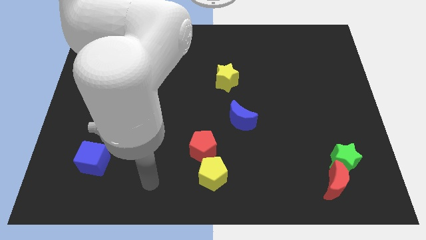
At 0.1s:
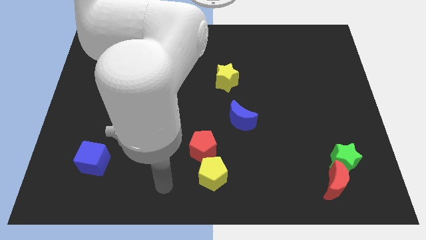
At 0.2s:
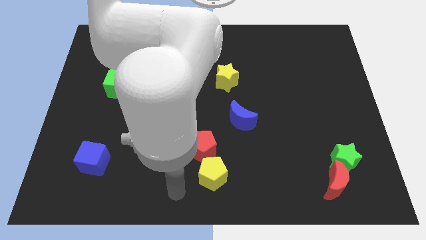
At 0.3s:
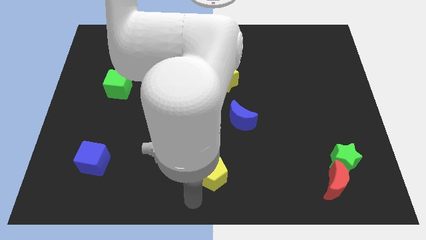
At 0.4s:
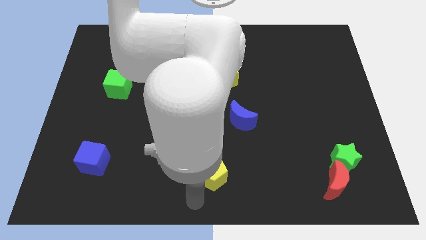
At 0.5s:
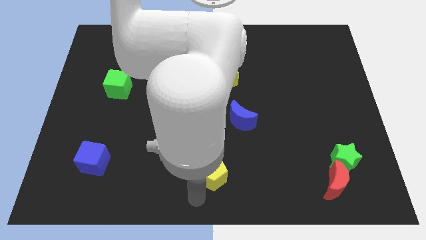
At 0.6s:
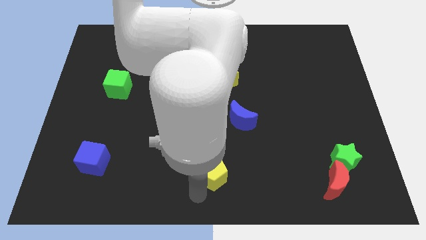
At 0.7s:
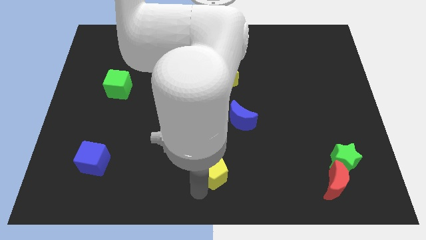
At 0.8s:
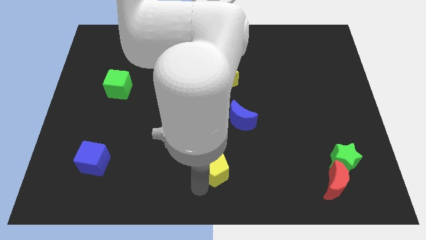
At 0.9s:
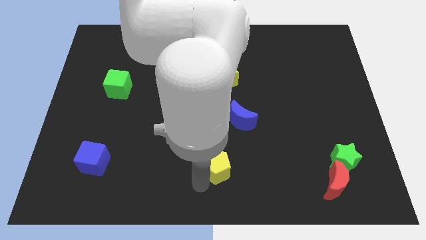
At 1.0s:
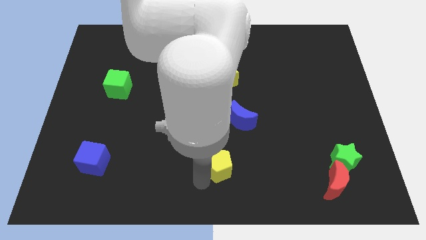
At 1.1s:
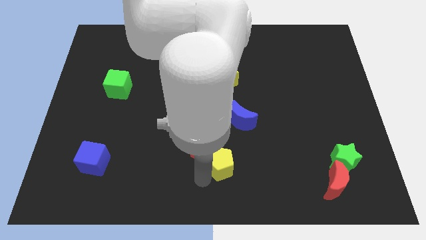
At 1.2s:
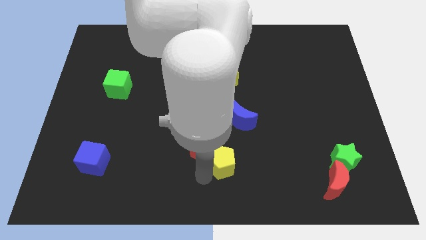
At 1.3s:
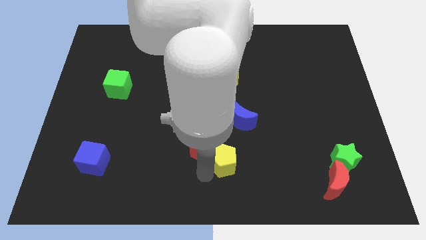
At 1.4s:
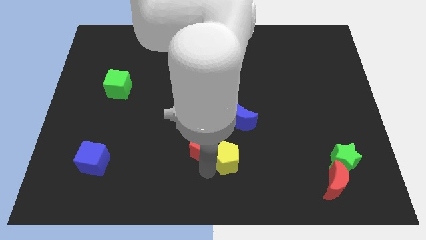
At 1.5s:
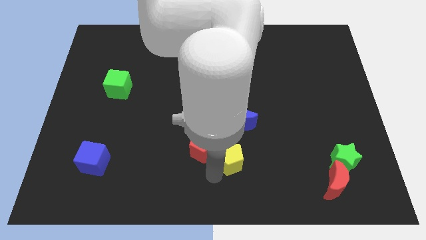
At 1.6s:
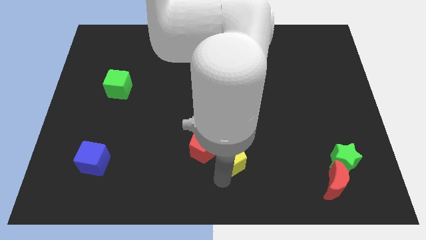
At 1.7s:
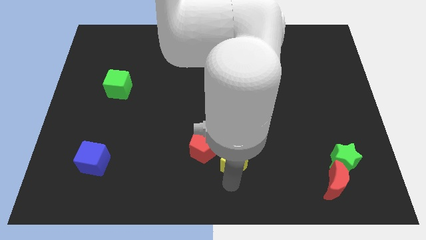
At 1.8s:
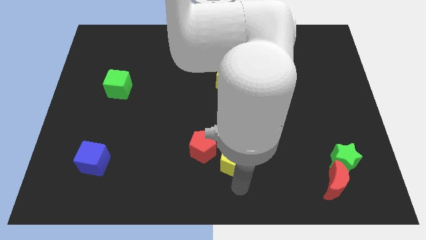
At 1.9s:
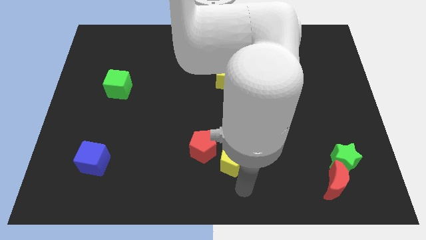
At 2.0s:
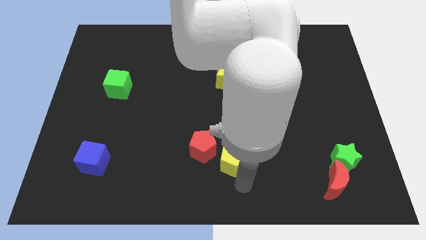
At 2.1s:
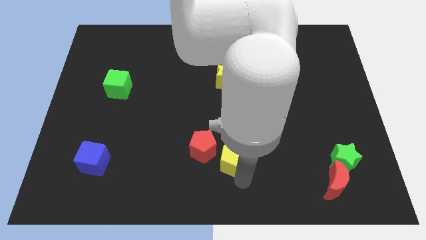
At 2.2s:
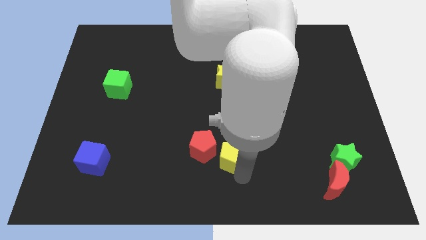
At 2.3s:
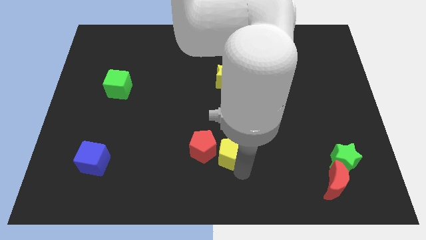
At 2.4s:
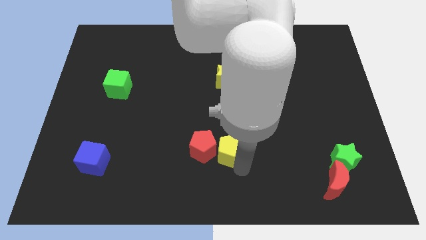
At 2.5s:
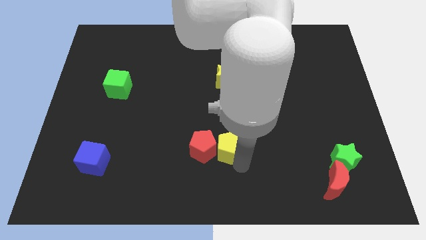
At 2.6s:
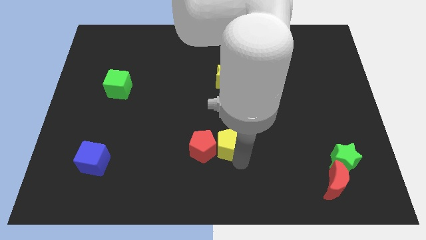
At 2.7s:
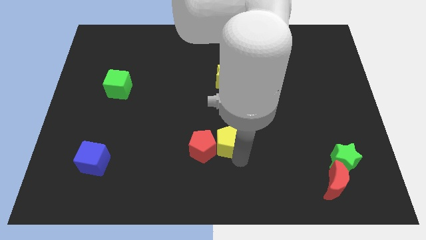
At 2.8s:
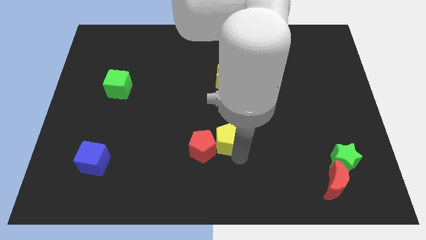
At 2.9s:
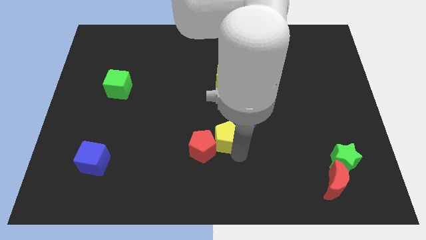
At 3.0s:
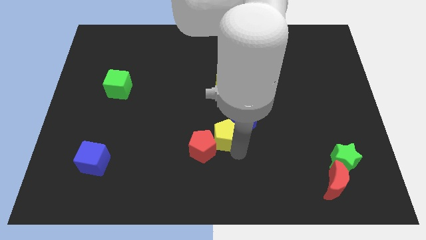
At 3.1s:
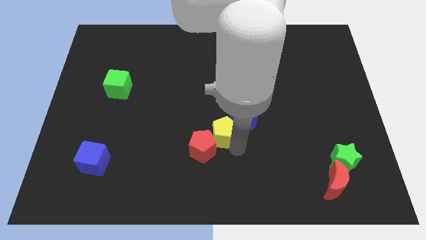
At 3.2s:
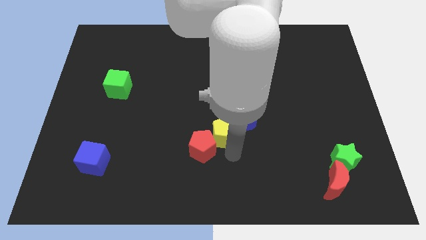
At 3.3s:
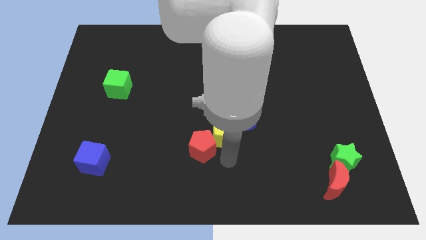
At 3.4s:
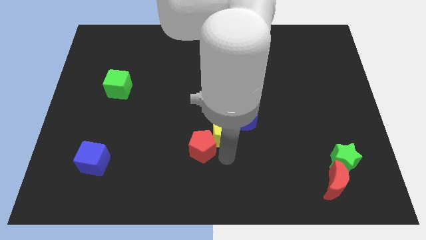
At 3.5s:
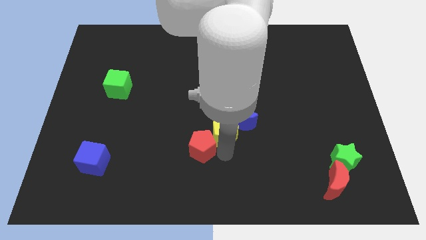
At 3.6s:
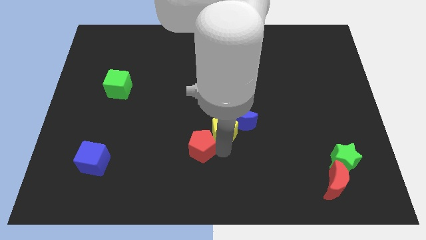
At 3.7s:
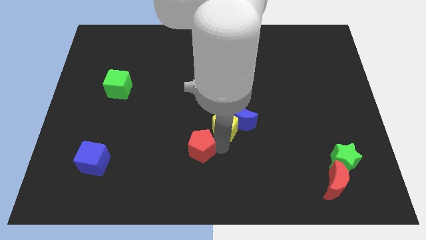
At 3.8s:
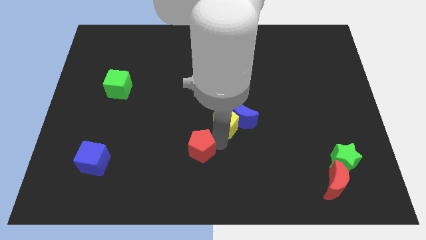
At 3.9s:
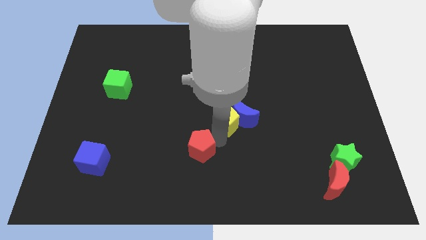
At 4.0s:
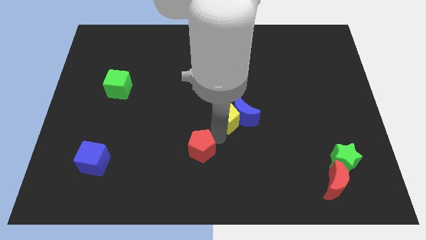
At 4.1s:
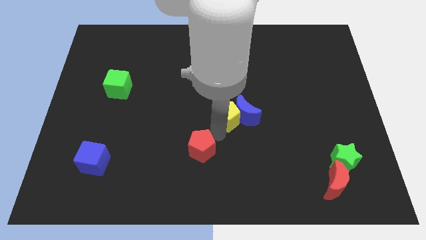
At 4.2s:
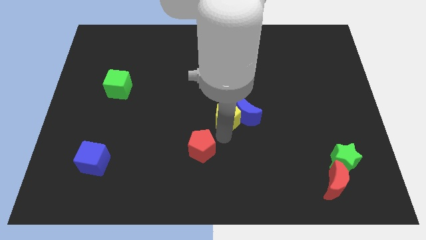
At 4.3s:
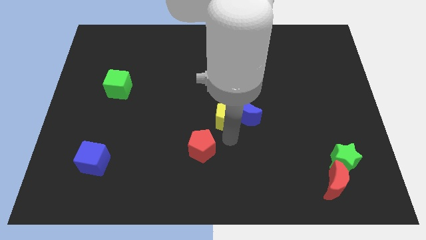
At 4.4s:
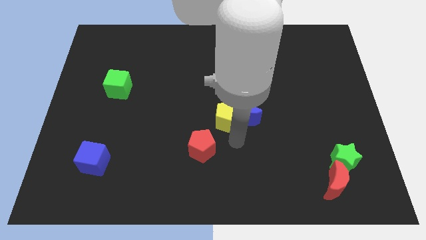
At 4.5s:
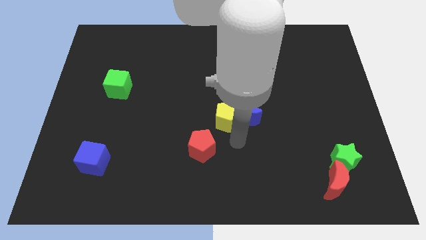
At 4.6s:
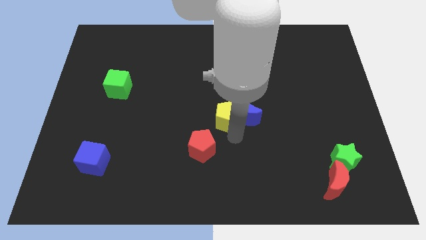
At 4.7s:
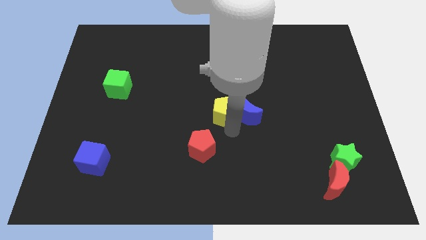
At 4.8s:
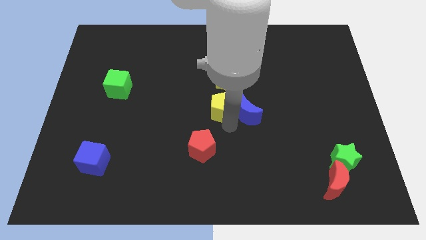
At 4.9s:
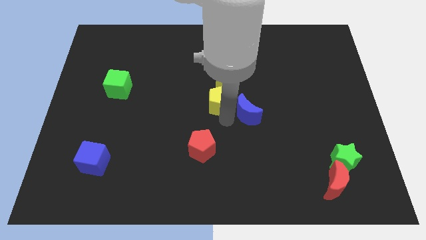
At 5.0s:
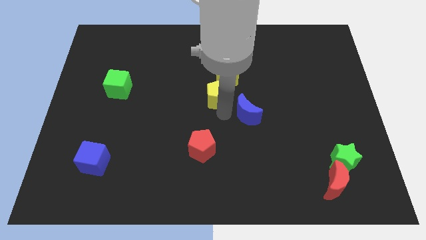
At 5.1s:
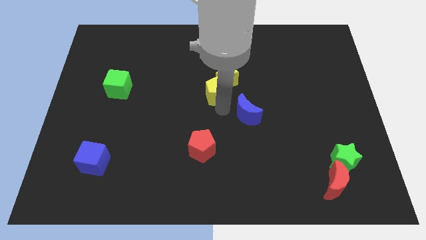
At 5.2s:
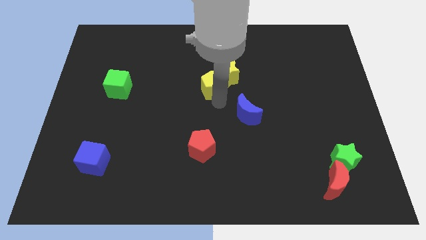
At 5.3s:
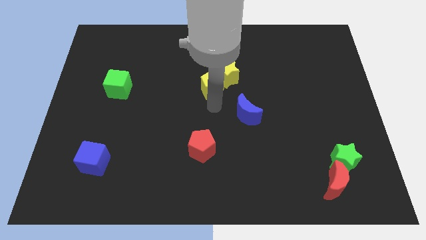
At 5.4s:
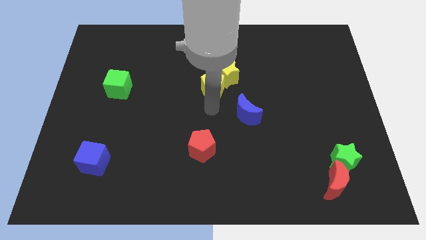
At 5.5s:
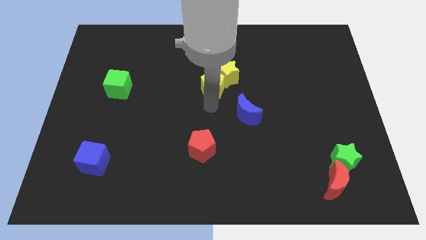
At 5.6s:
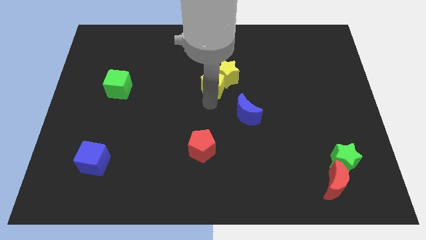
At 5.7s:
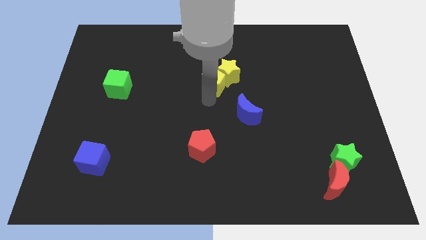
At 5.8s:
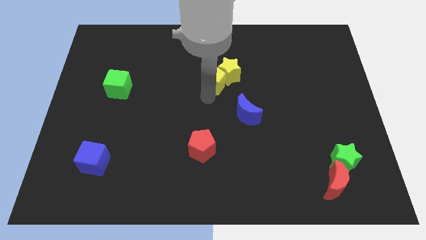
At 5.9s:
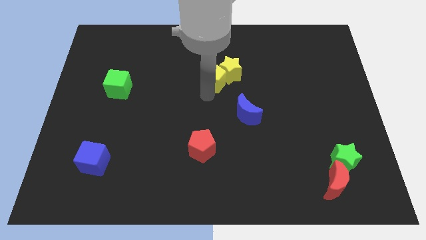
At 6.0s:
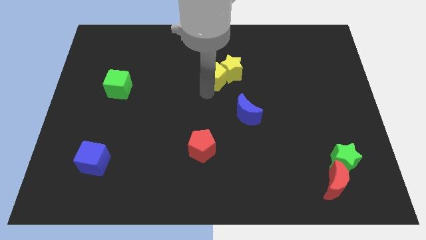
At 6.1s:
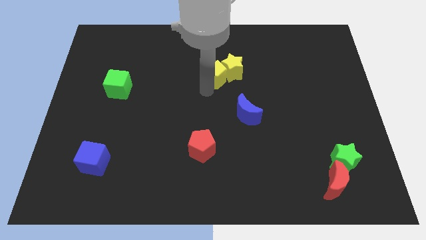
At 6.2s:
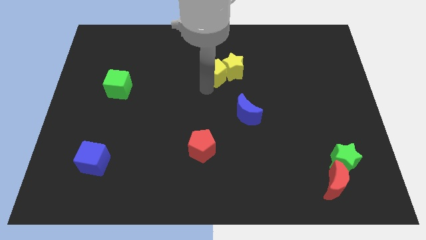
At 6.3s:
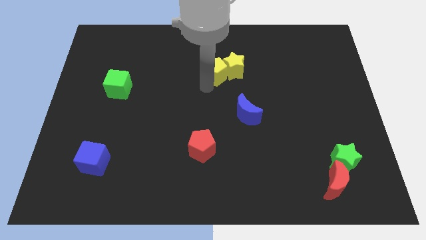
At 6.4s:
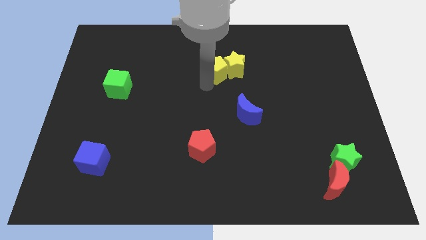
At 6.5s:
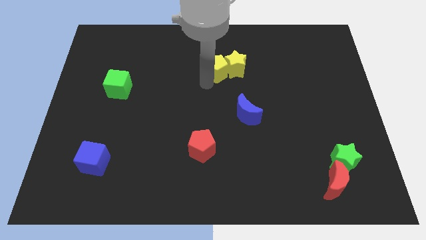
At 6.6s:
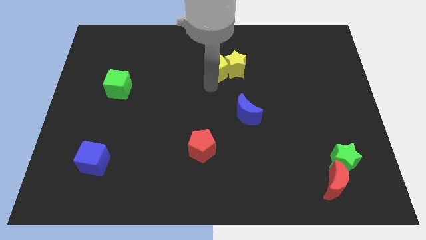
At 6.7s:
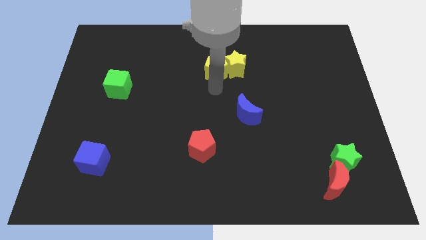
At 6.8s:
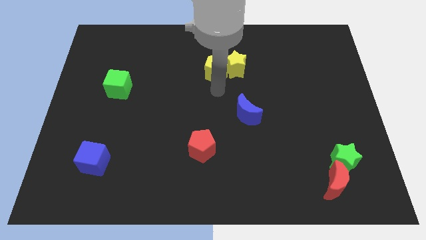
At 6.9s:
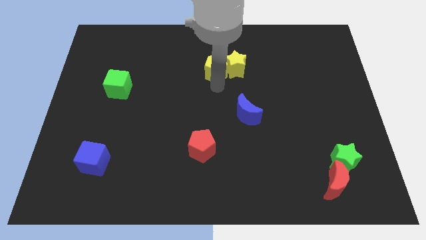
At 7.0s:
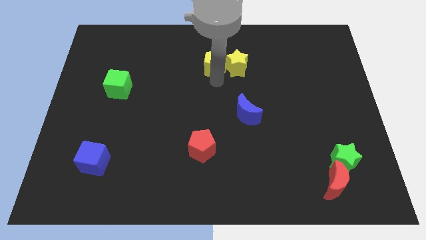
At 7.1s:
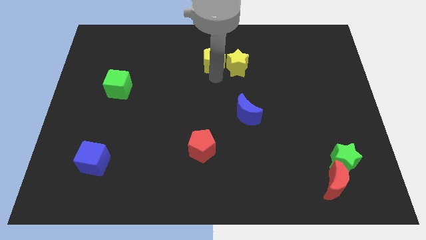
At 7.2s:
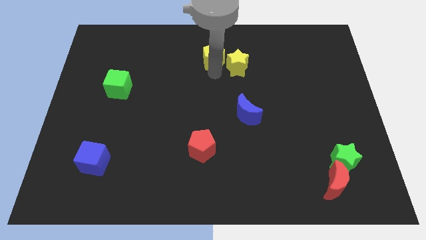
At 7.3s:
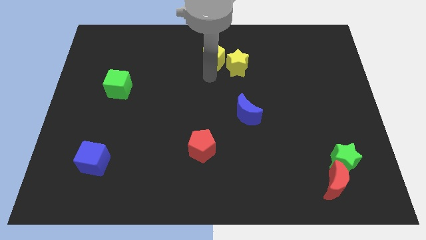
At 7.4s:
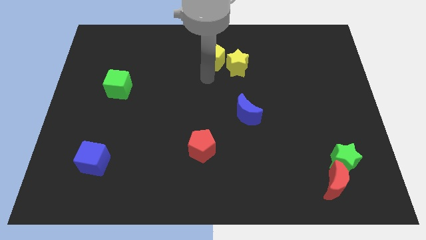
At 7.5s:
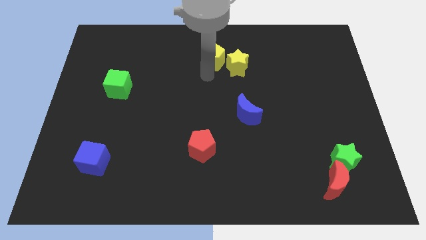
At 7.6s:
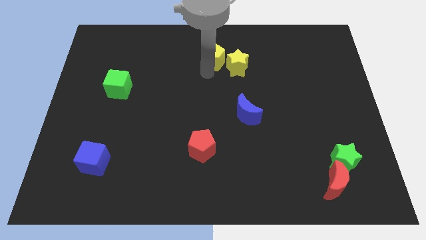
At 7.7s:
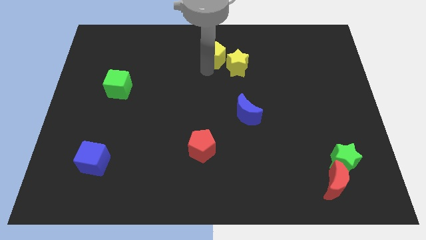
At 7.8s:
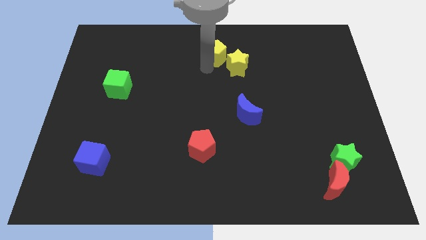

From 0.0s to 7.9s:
slide the yellow pentagon to the towards your base
